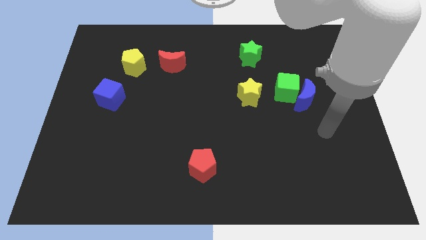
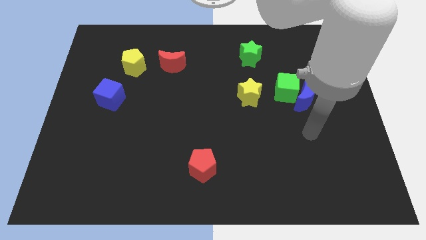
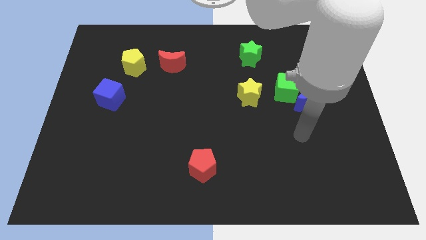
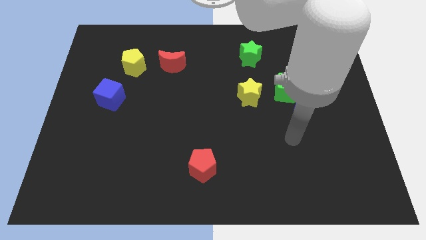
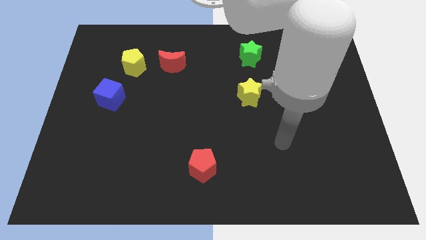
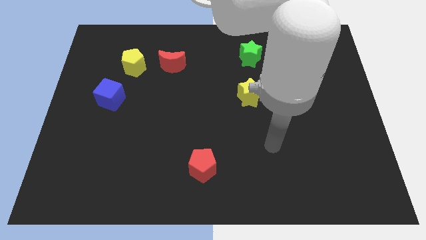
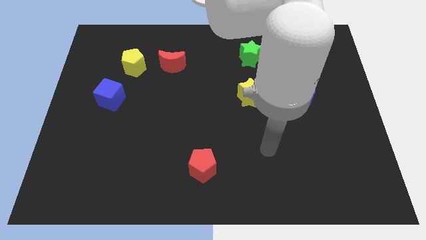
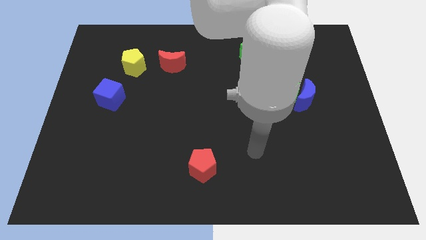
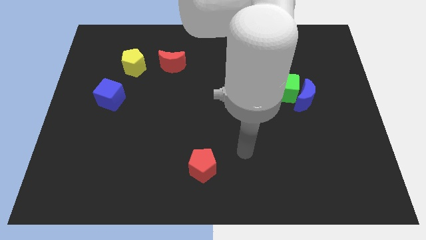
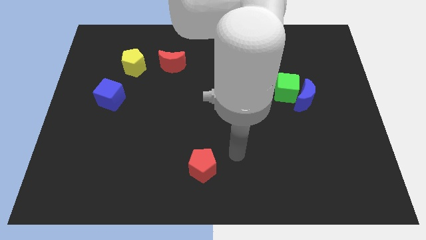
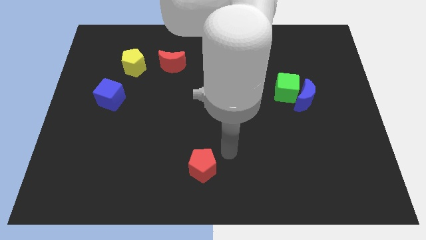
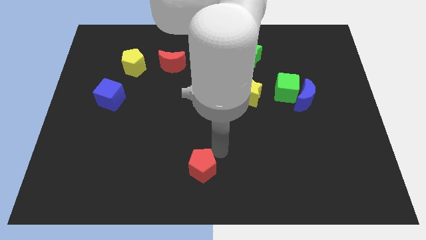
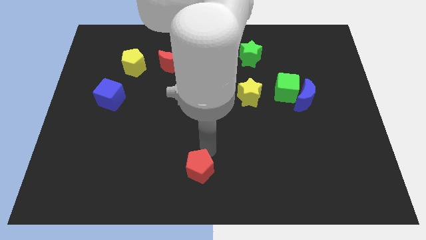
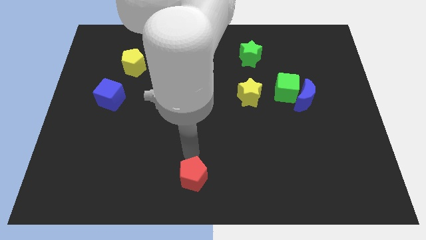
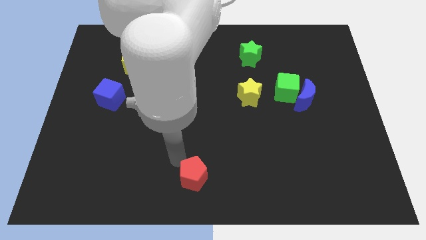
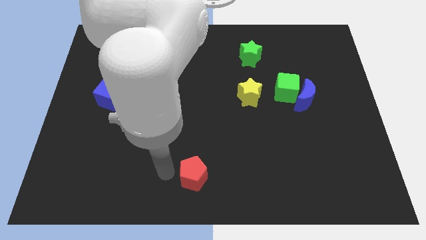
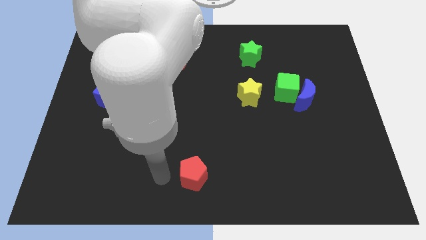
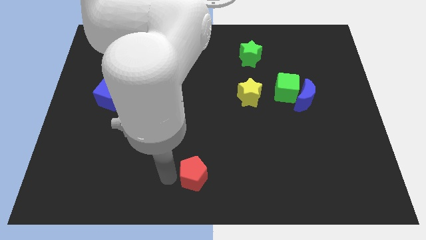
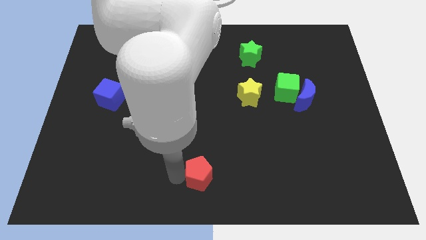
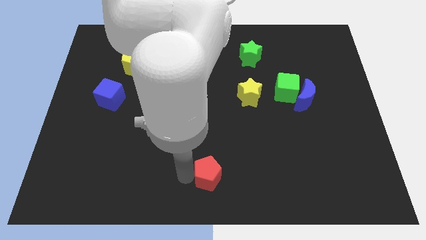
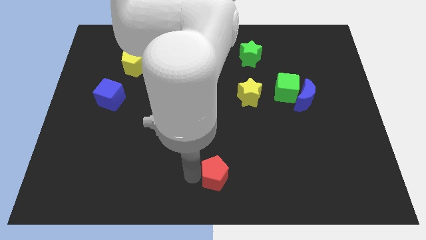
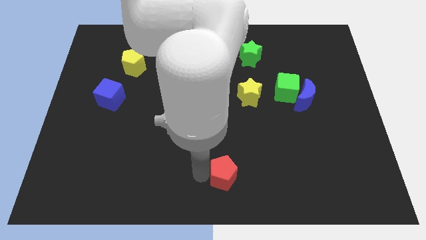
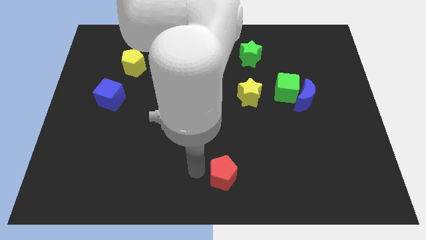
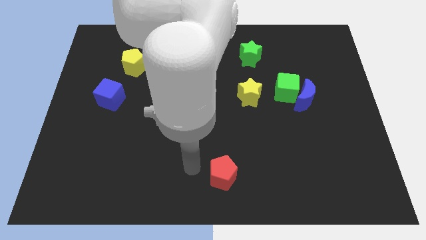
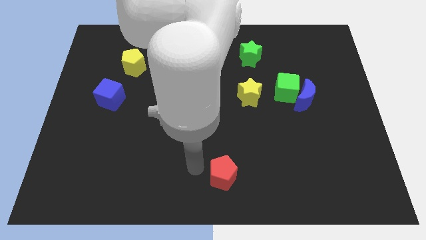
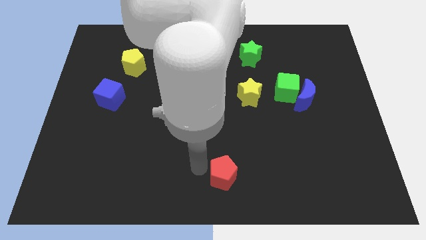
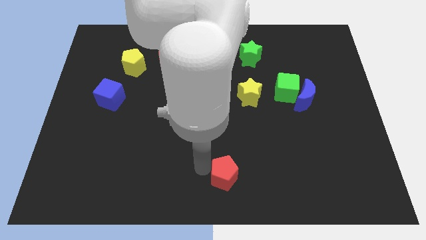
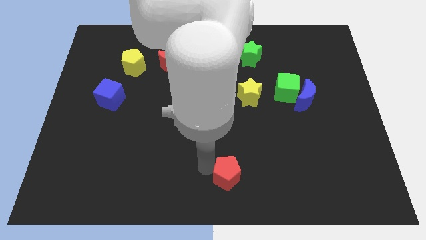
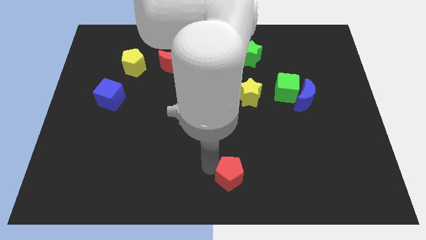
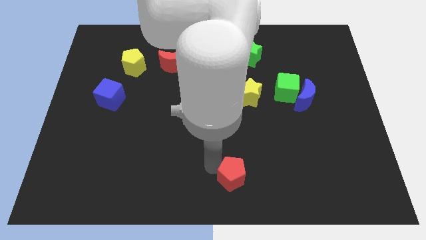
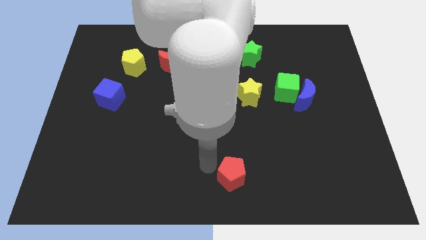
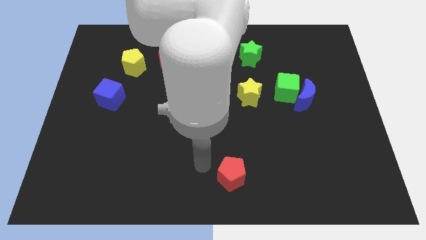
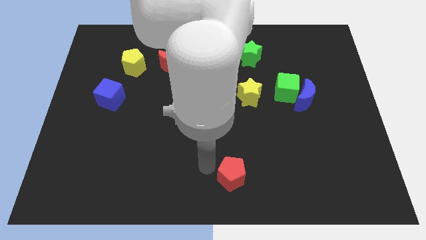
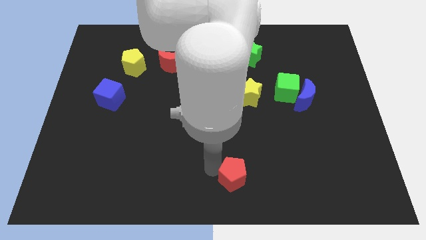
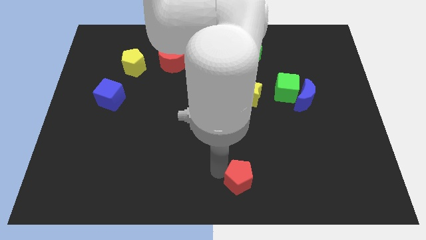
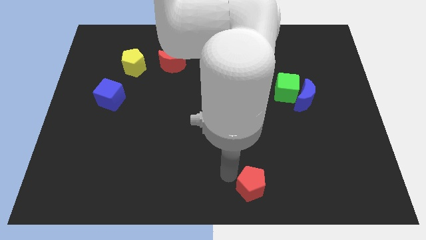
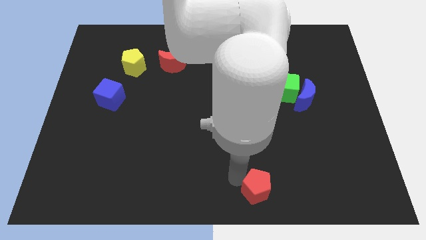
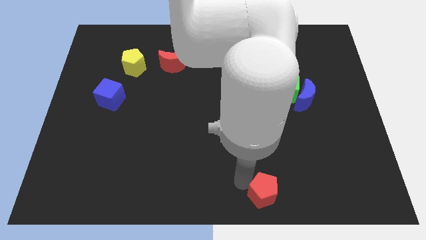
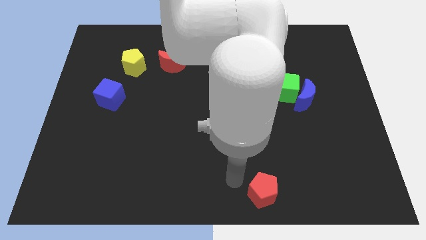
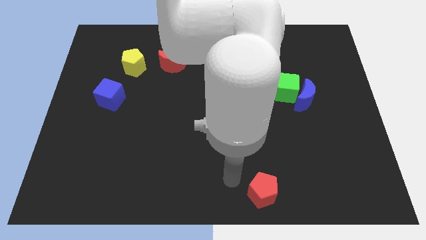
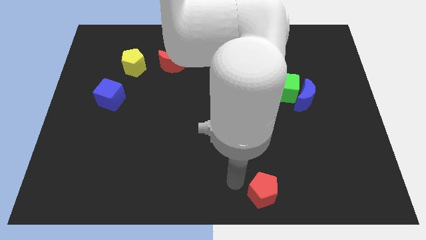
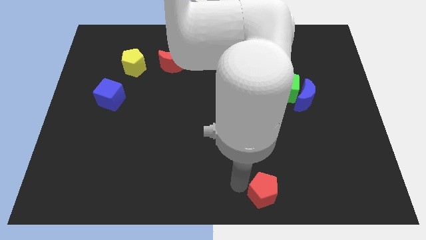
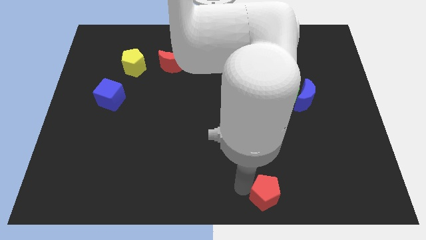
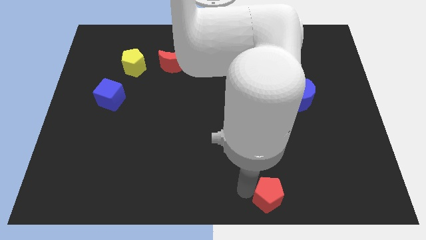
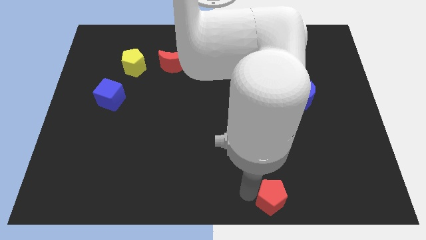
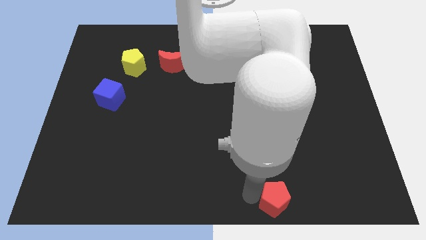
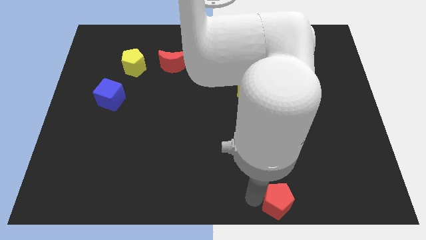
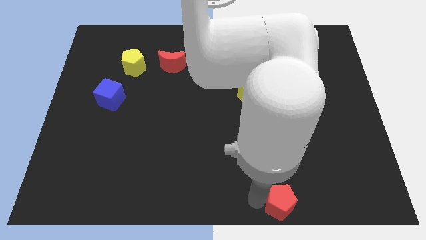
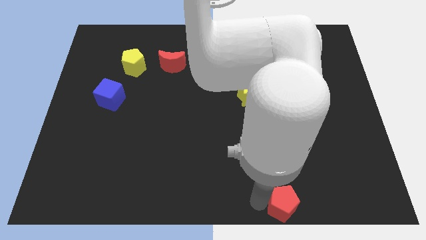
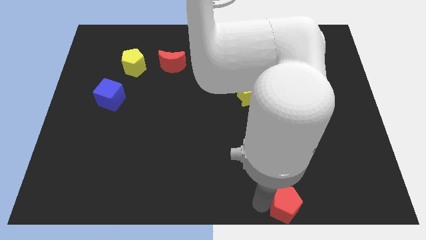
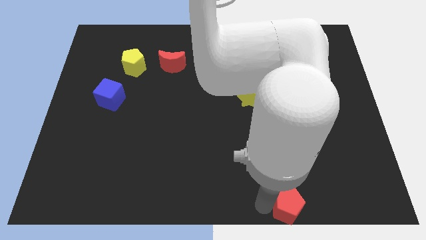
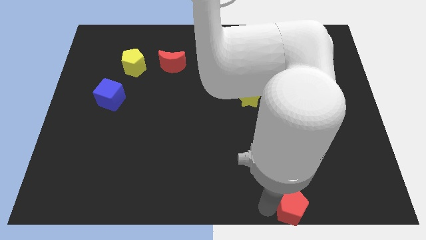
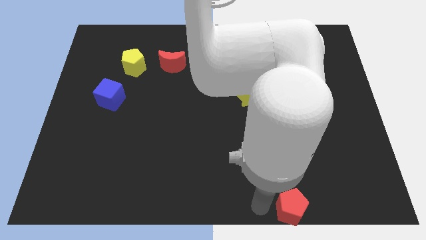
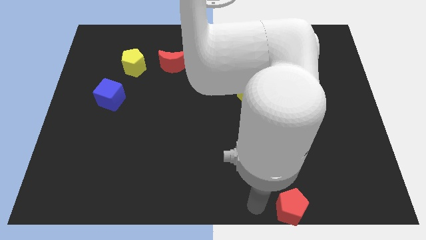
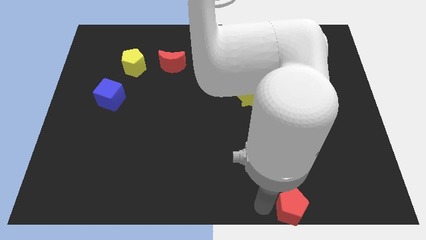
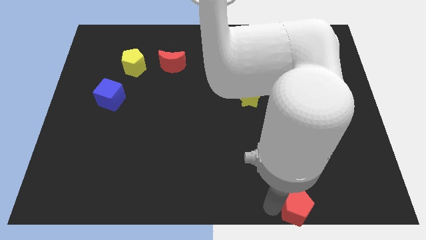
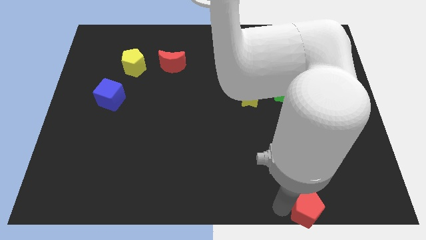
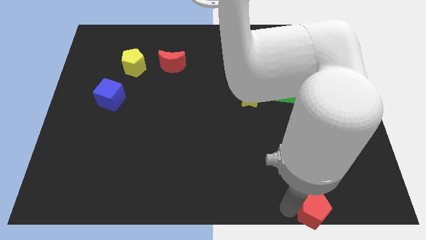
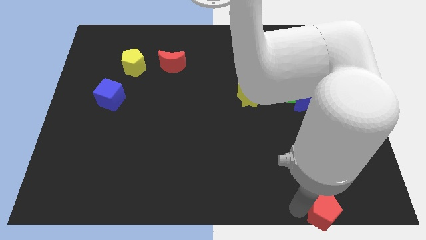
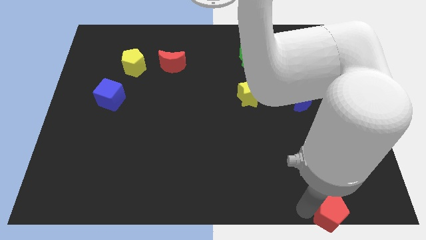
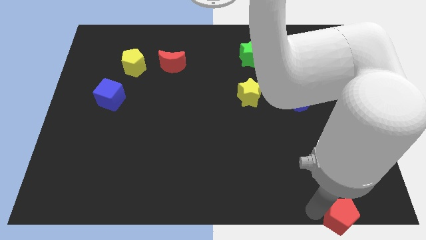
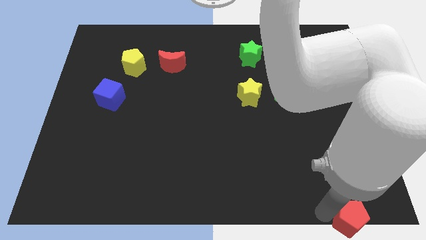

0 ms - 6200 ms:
move the red pentagon to the bottom right corner
